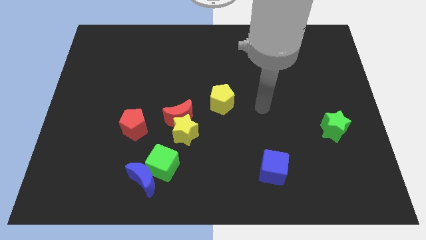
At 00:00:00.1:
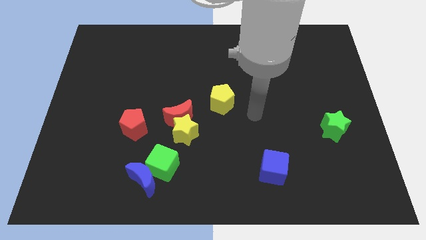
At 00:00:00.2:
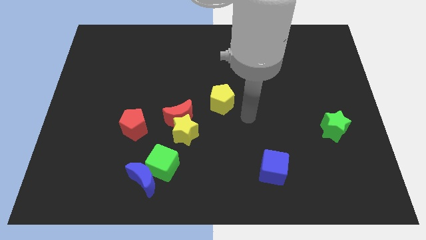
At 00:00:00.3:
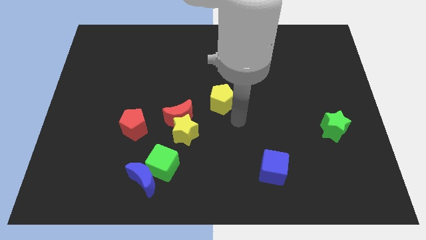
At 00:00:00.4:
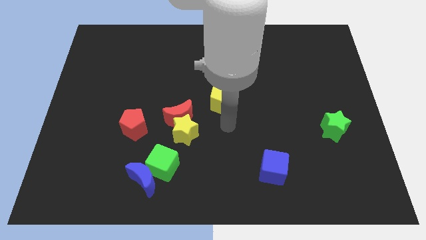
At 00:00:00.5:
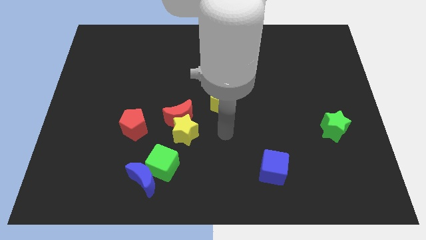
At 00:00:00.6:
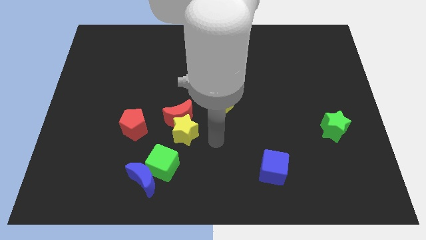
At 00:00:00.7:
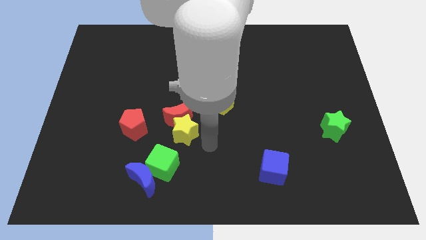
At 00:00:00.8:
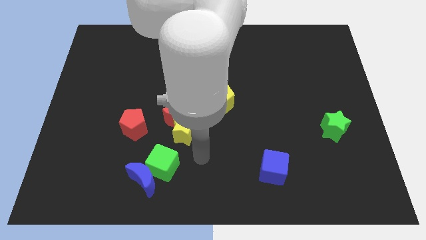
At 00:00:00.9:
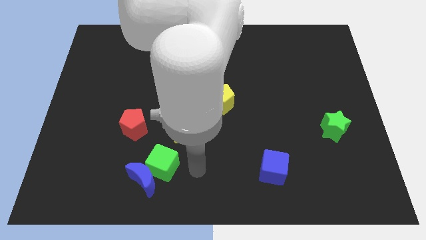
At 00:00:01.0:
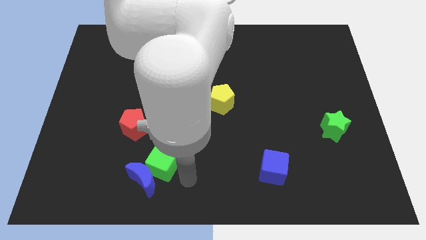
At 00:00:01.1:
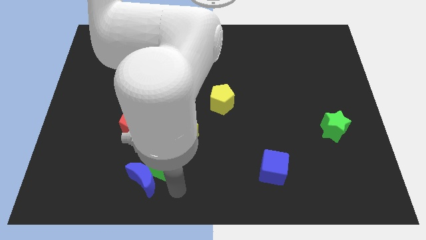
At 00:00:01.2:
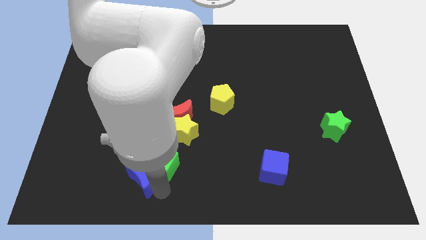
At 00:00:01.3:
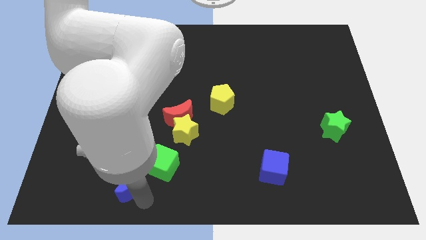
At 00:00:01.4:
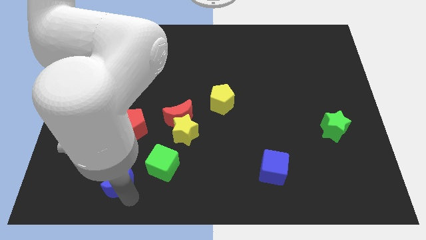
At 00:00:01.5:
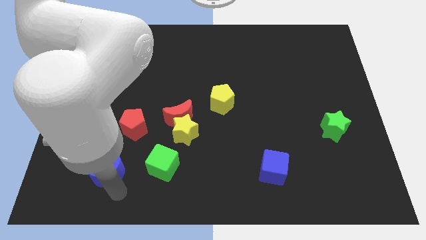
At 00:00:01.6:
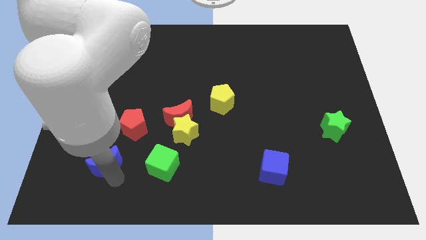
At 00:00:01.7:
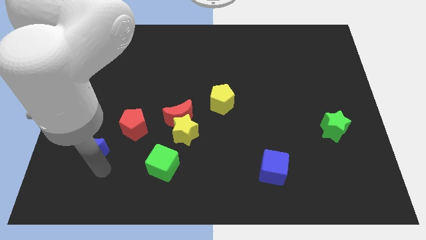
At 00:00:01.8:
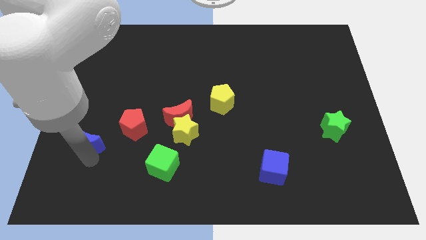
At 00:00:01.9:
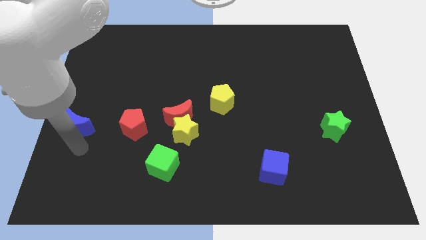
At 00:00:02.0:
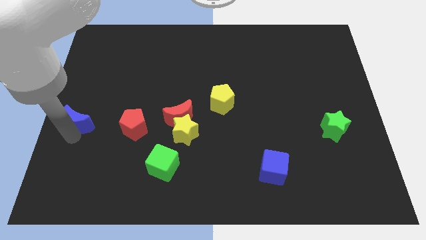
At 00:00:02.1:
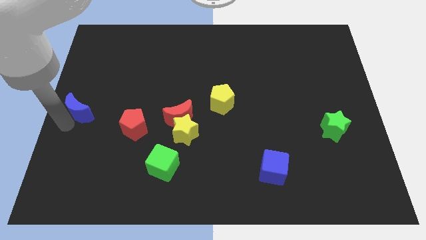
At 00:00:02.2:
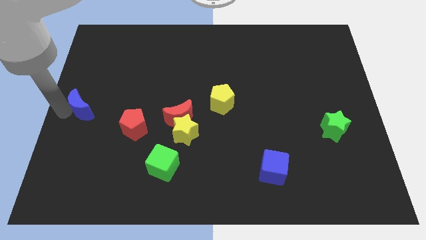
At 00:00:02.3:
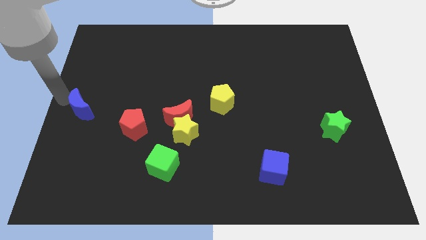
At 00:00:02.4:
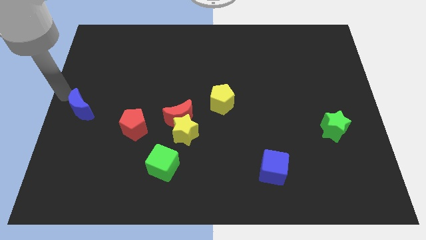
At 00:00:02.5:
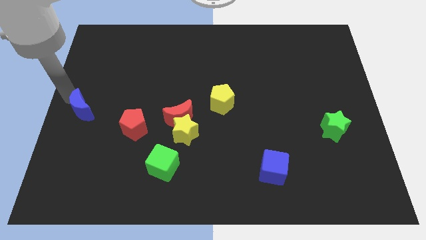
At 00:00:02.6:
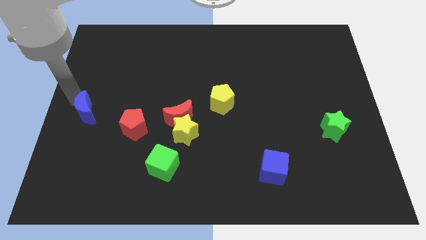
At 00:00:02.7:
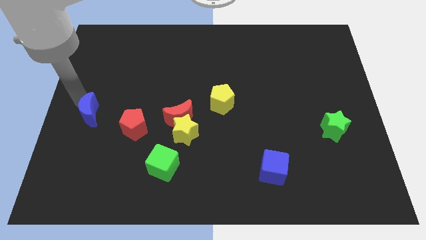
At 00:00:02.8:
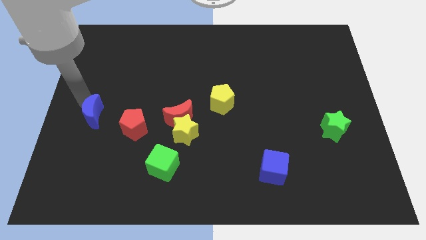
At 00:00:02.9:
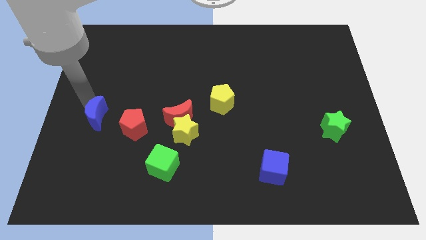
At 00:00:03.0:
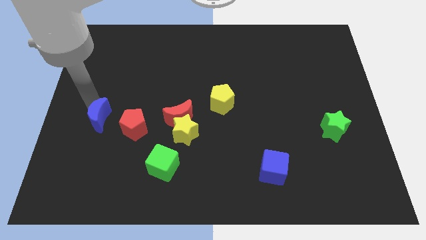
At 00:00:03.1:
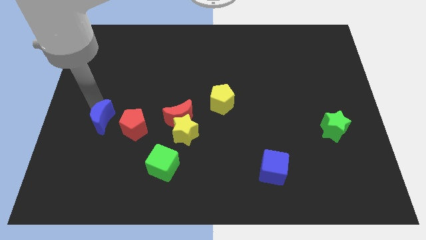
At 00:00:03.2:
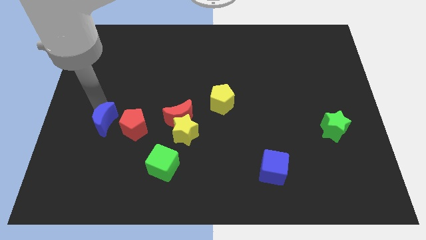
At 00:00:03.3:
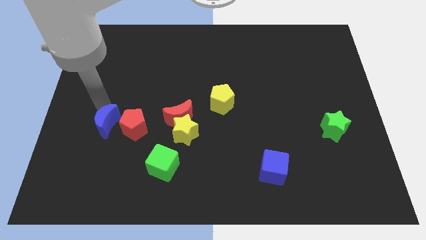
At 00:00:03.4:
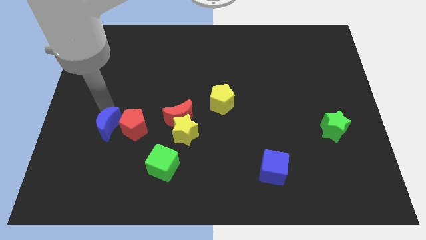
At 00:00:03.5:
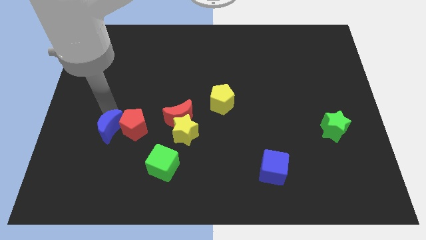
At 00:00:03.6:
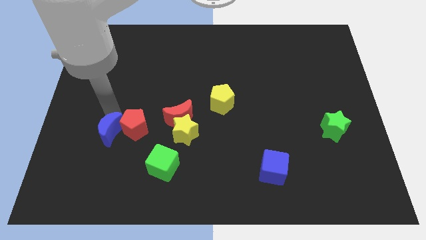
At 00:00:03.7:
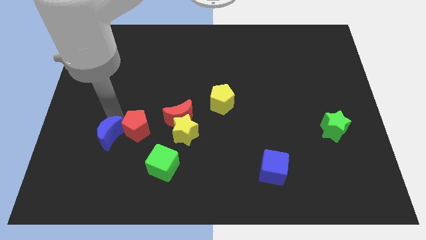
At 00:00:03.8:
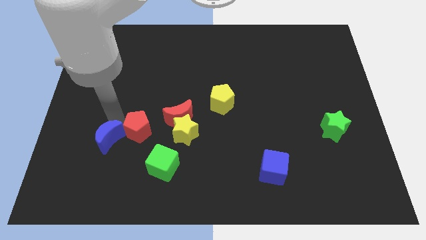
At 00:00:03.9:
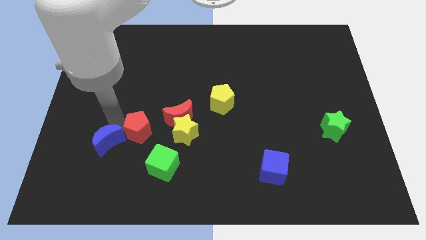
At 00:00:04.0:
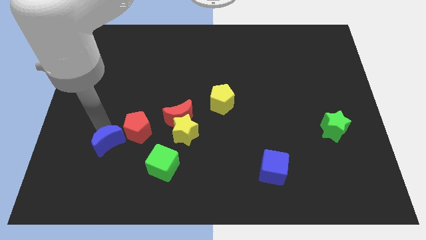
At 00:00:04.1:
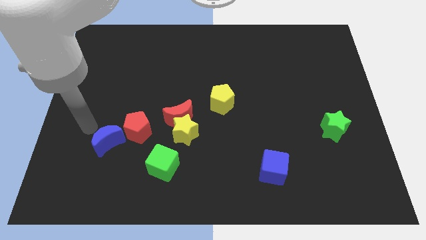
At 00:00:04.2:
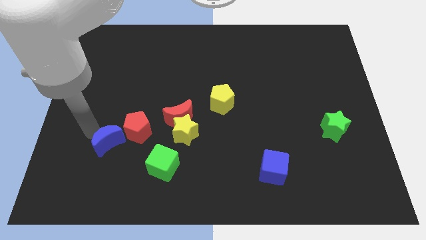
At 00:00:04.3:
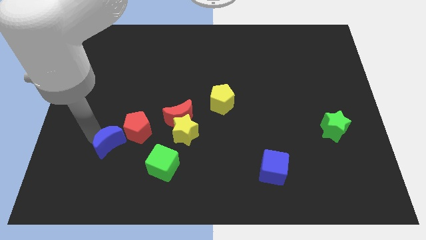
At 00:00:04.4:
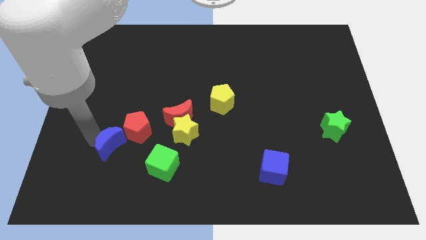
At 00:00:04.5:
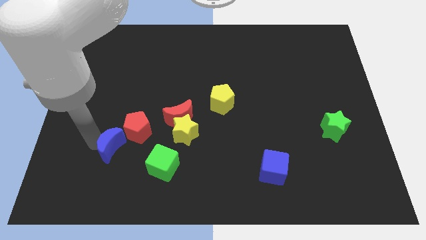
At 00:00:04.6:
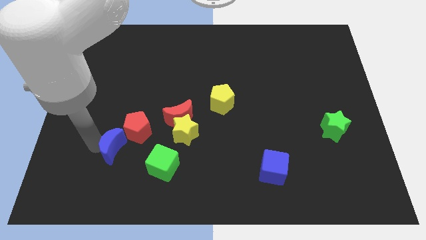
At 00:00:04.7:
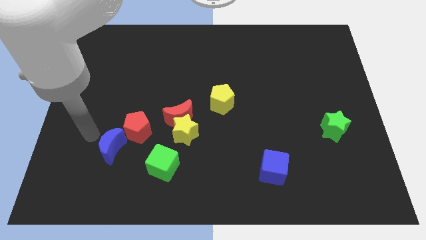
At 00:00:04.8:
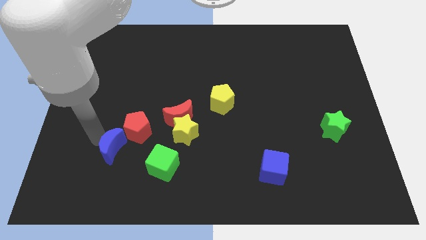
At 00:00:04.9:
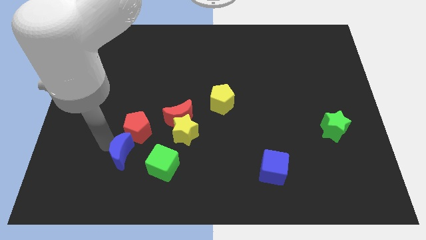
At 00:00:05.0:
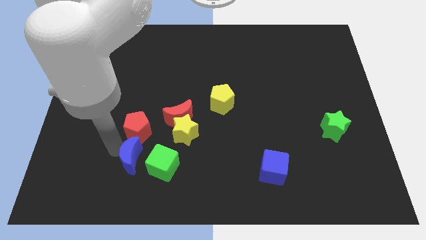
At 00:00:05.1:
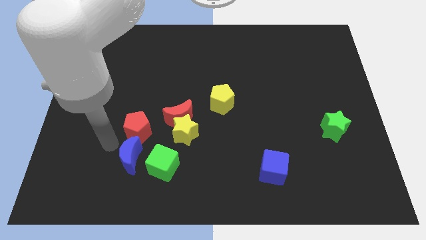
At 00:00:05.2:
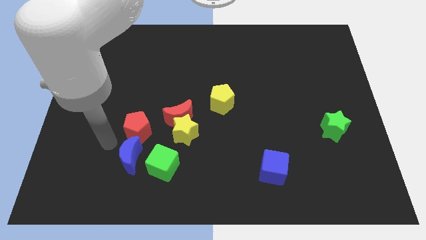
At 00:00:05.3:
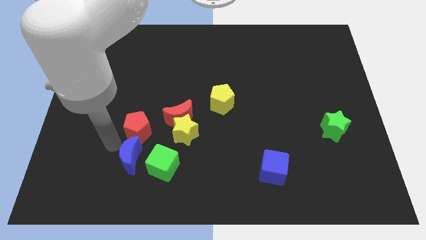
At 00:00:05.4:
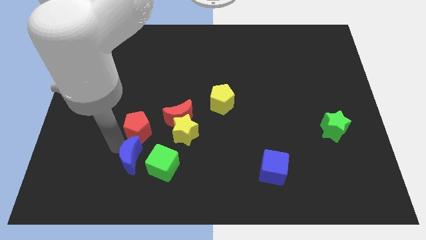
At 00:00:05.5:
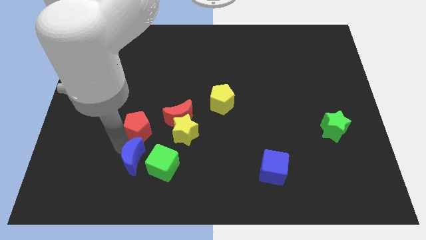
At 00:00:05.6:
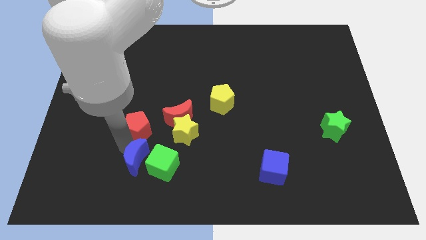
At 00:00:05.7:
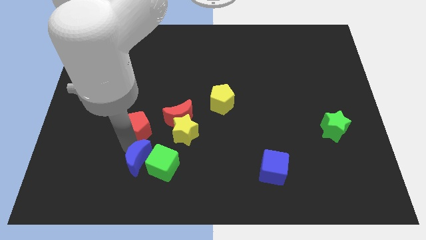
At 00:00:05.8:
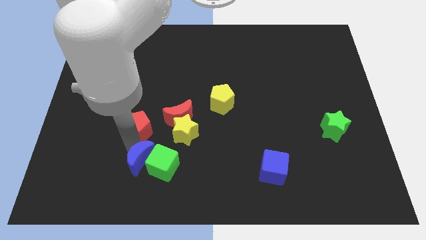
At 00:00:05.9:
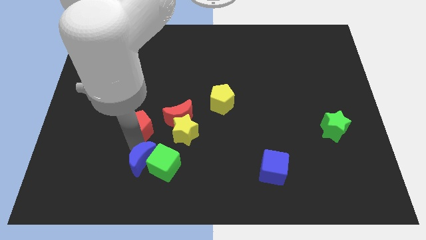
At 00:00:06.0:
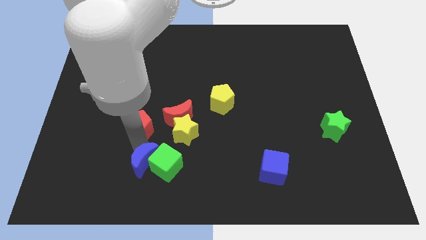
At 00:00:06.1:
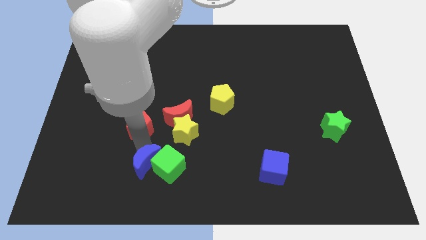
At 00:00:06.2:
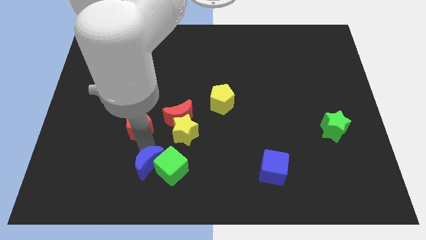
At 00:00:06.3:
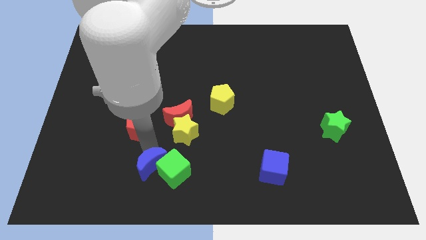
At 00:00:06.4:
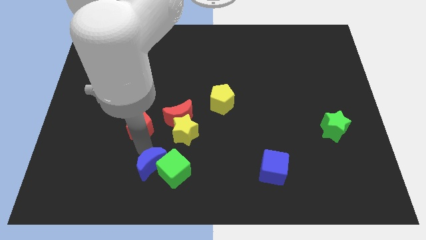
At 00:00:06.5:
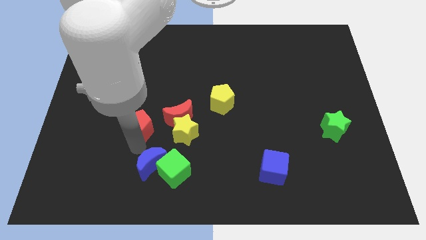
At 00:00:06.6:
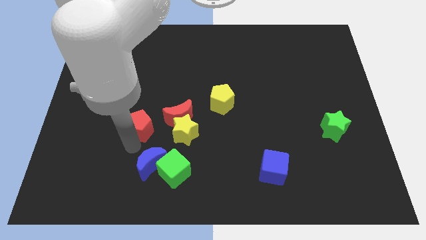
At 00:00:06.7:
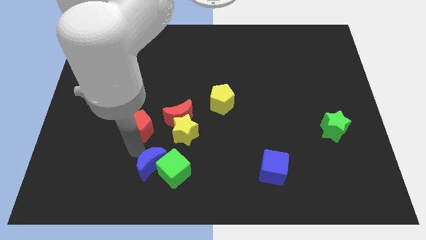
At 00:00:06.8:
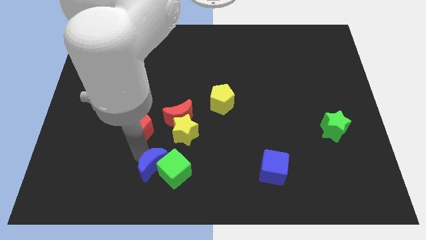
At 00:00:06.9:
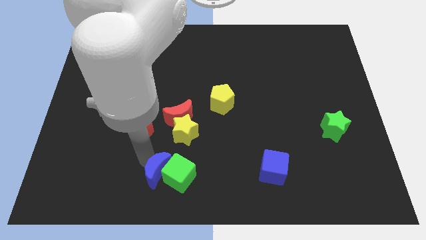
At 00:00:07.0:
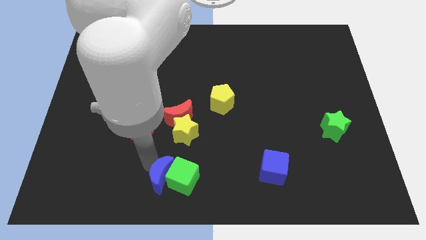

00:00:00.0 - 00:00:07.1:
move the blue moon to the bottom side
